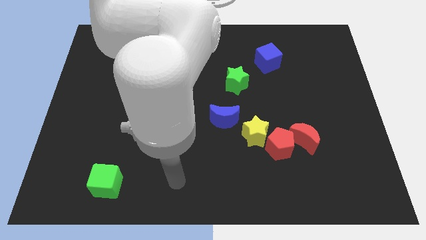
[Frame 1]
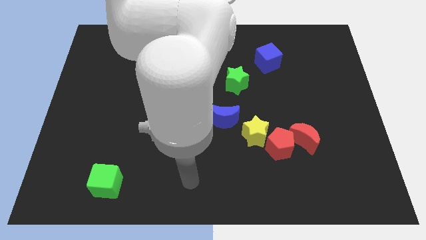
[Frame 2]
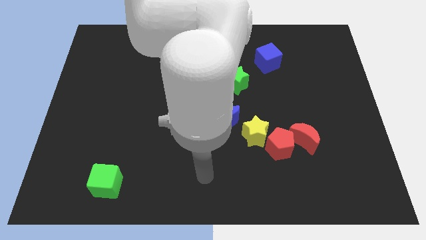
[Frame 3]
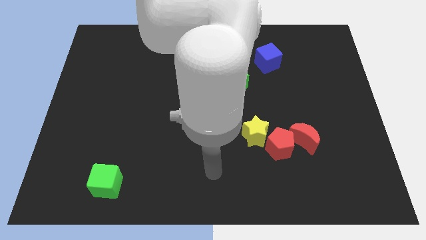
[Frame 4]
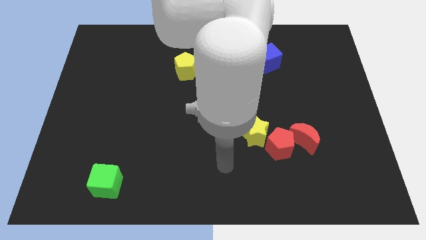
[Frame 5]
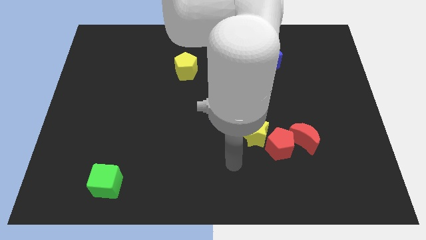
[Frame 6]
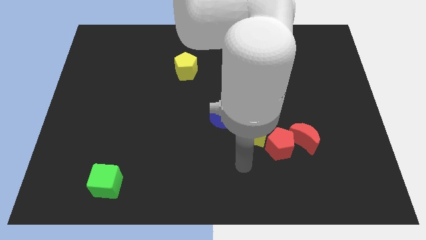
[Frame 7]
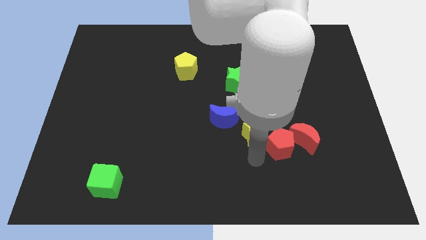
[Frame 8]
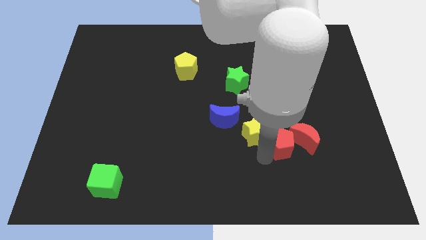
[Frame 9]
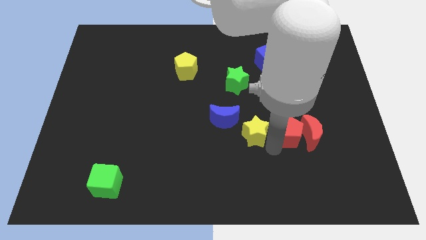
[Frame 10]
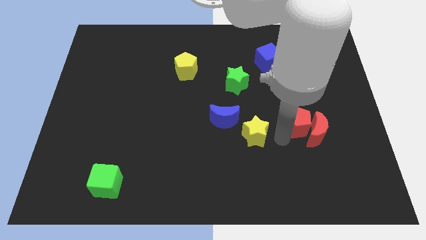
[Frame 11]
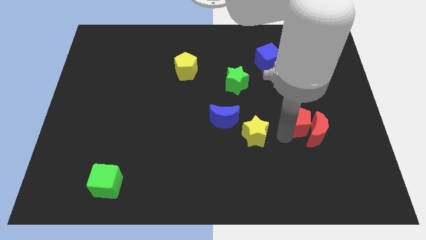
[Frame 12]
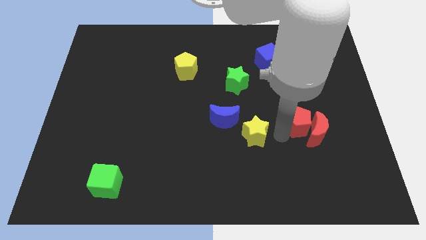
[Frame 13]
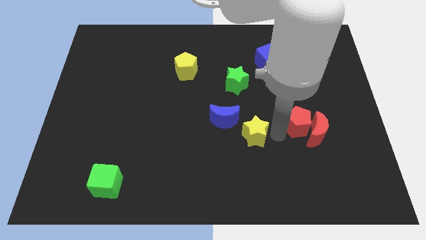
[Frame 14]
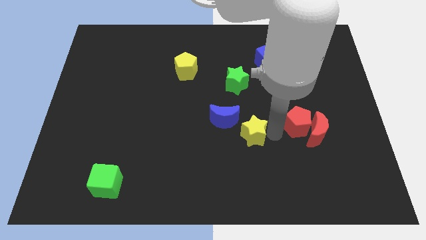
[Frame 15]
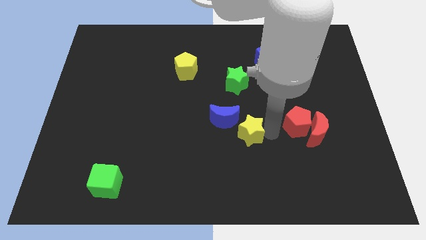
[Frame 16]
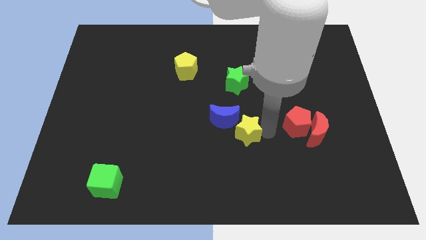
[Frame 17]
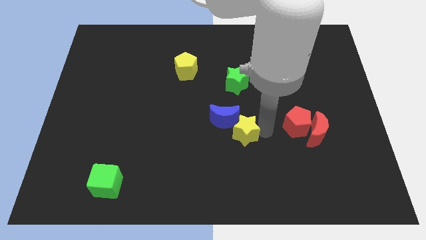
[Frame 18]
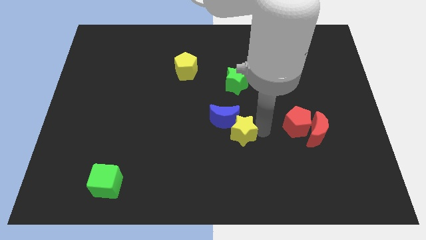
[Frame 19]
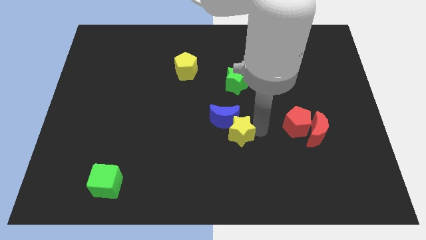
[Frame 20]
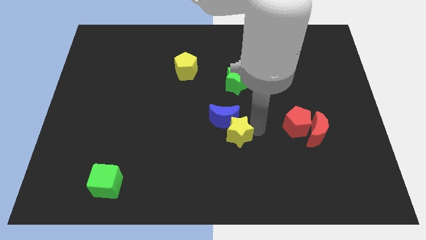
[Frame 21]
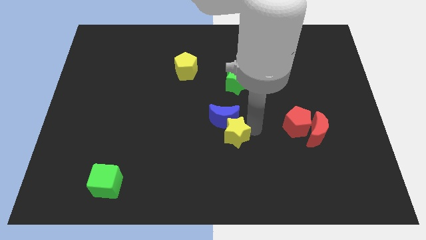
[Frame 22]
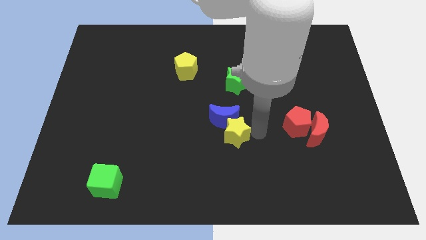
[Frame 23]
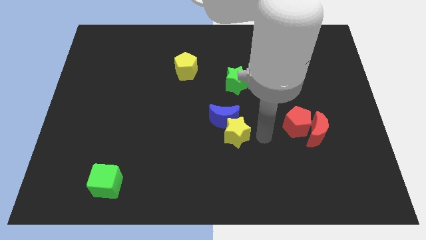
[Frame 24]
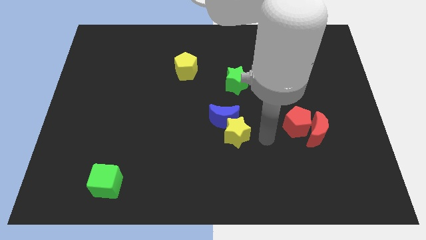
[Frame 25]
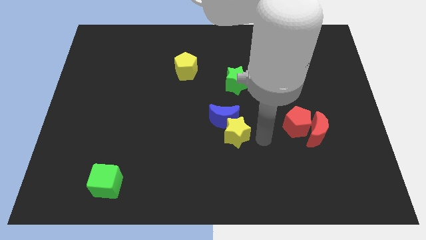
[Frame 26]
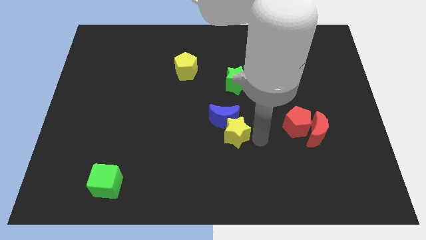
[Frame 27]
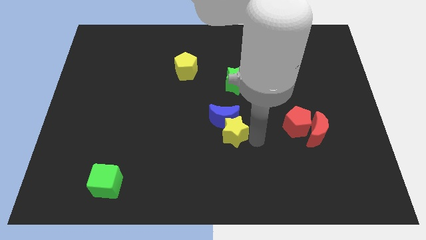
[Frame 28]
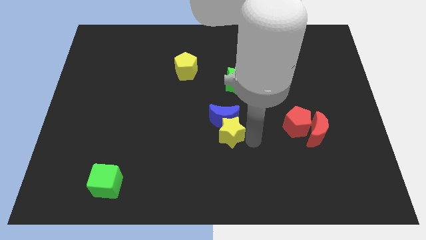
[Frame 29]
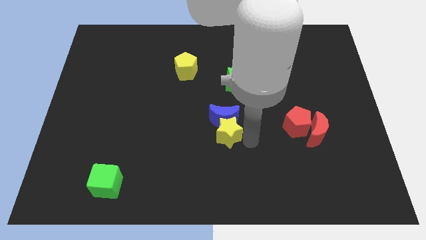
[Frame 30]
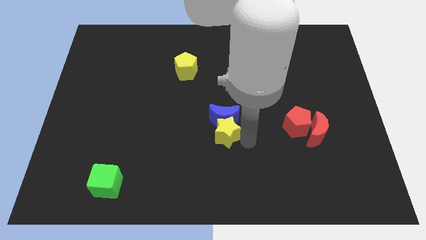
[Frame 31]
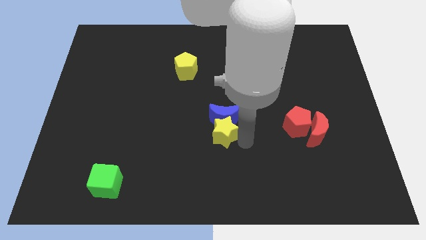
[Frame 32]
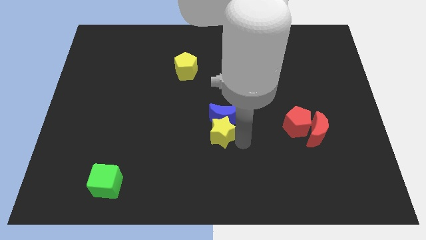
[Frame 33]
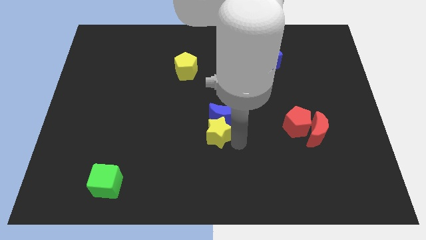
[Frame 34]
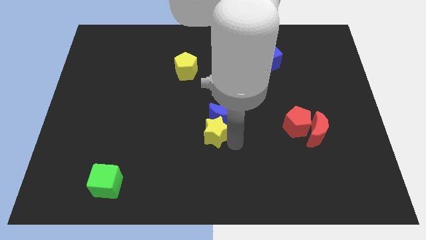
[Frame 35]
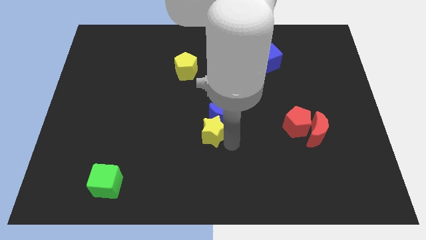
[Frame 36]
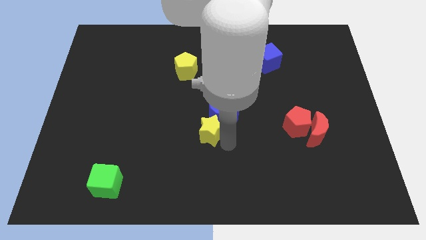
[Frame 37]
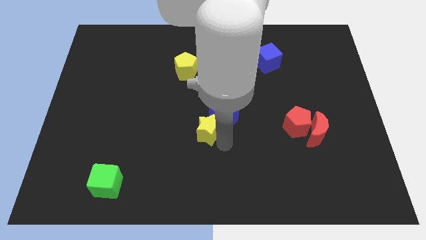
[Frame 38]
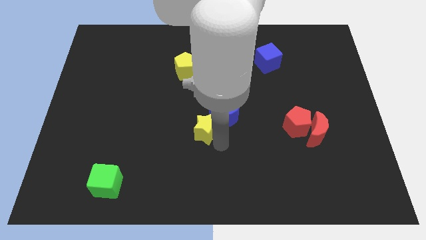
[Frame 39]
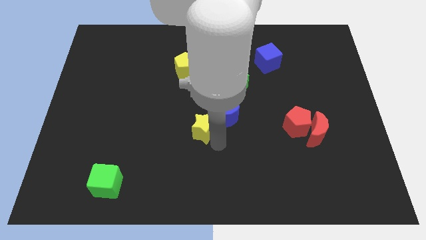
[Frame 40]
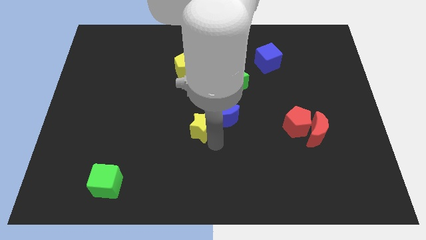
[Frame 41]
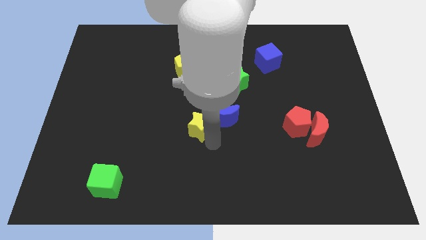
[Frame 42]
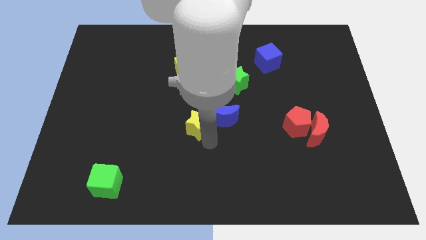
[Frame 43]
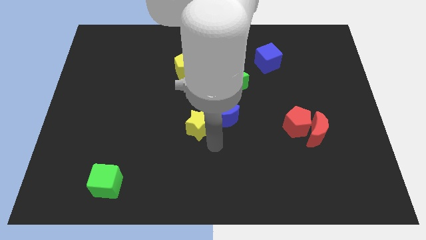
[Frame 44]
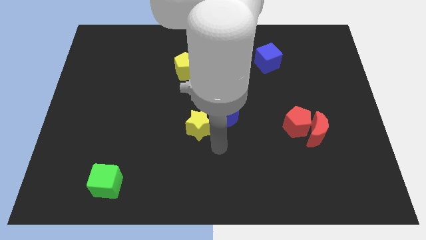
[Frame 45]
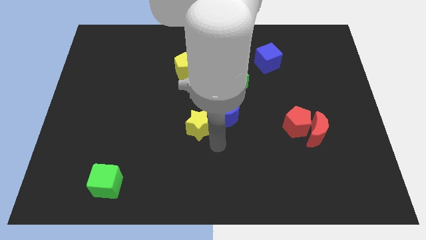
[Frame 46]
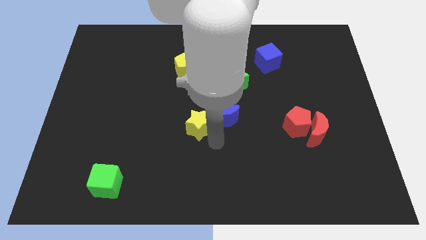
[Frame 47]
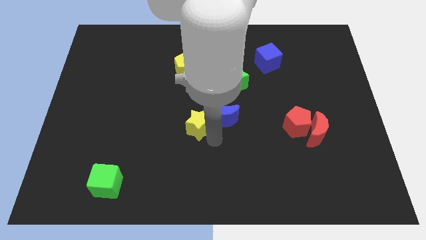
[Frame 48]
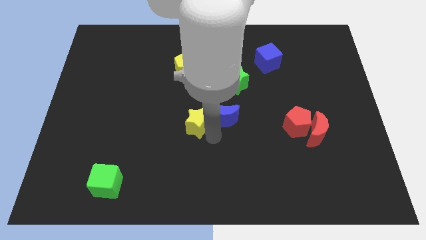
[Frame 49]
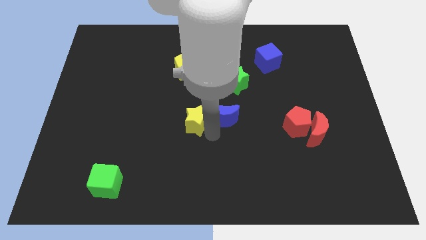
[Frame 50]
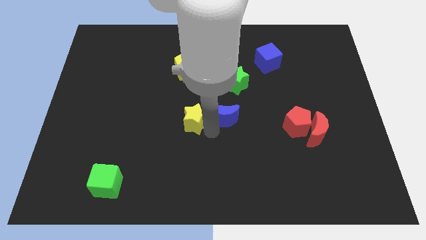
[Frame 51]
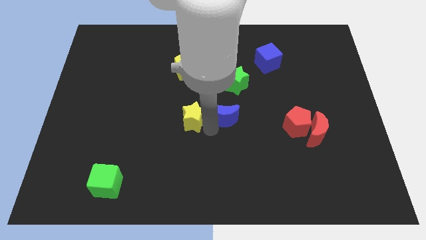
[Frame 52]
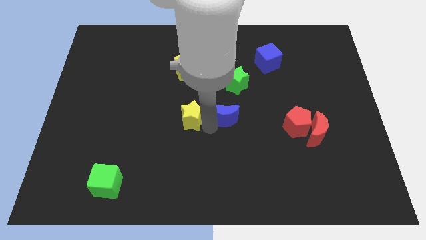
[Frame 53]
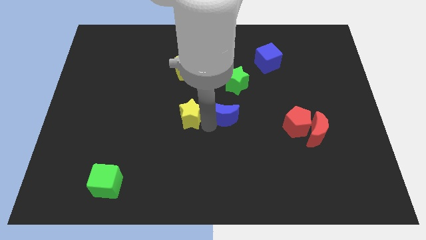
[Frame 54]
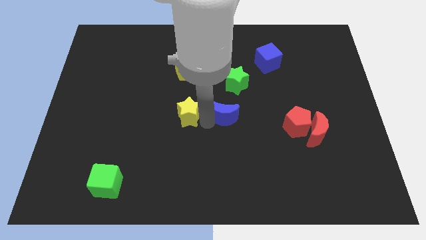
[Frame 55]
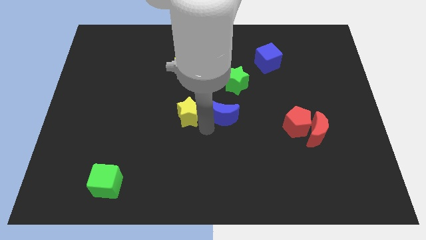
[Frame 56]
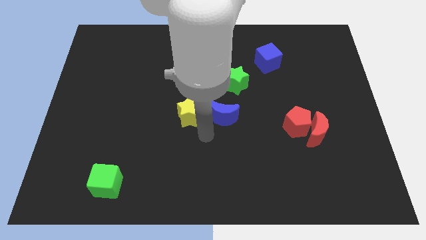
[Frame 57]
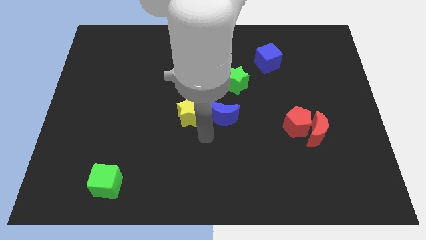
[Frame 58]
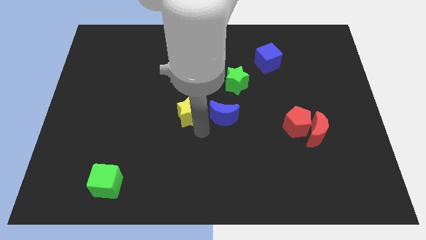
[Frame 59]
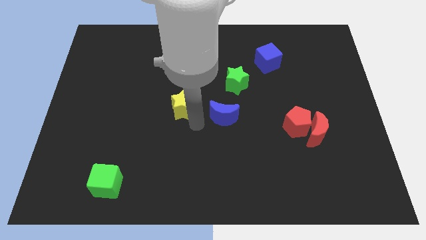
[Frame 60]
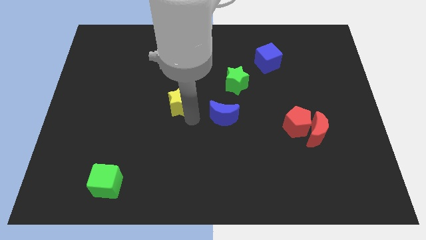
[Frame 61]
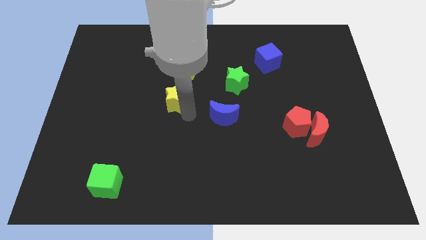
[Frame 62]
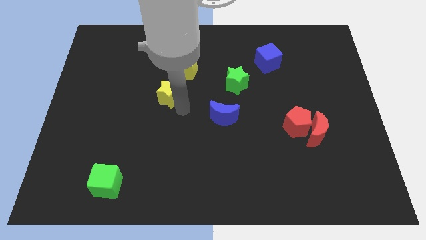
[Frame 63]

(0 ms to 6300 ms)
move the yellow star up and then left

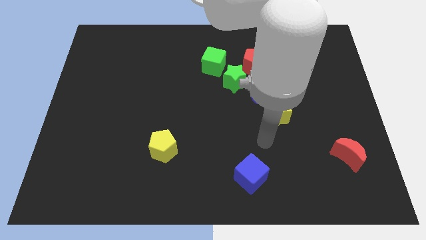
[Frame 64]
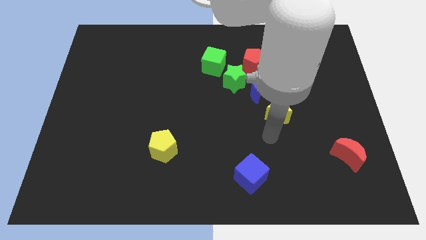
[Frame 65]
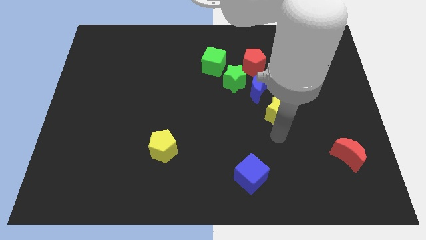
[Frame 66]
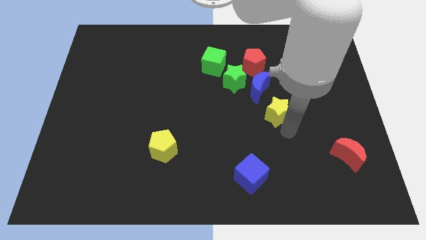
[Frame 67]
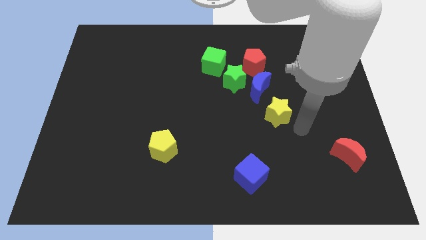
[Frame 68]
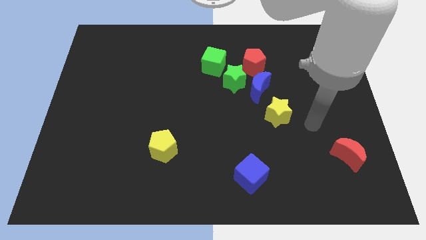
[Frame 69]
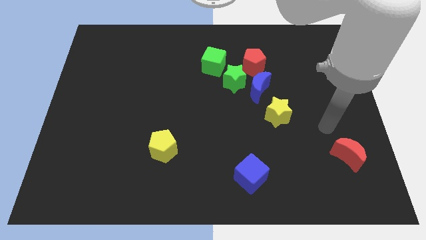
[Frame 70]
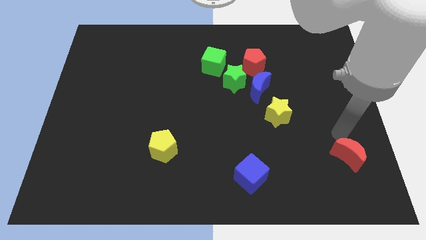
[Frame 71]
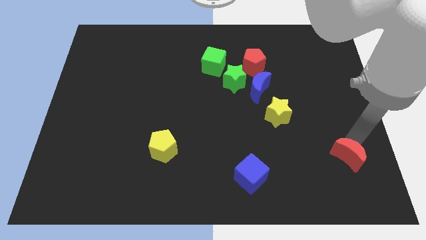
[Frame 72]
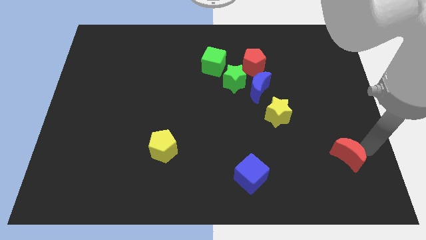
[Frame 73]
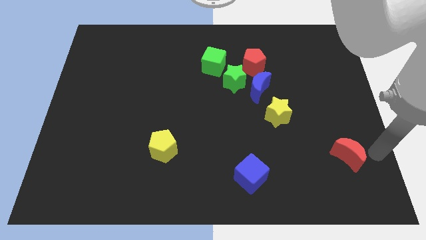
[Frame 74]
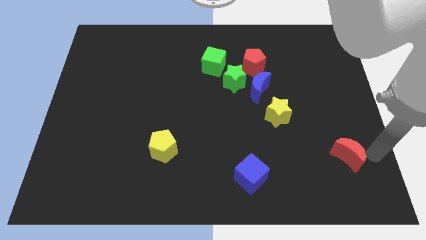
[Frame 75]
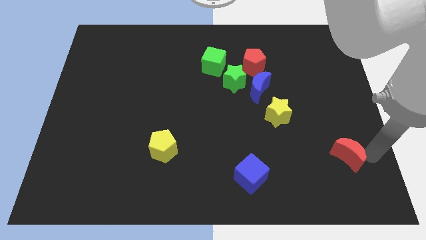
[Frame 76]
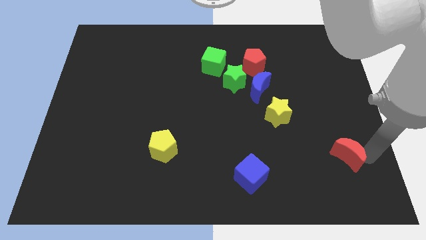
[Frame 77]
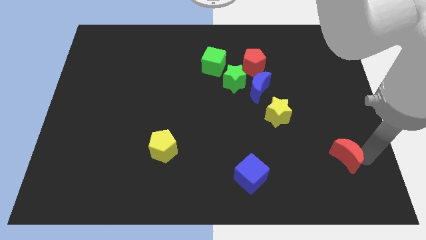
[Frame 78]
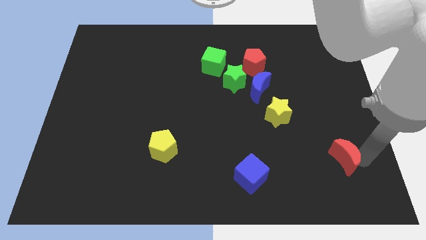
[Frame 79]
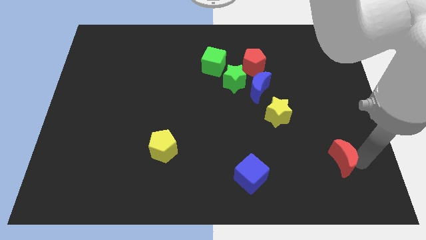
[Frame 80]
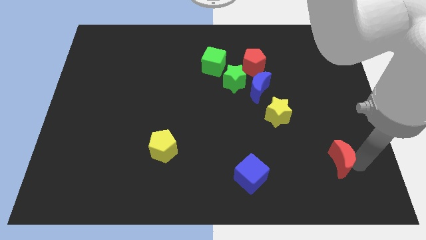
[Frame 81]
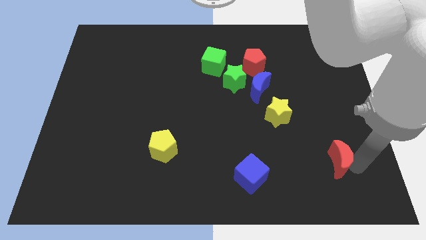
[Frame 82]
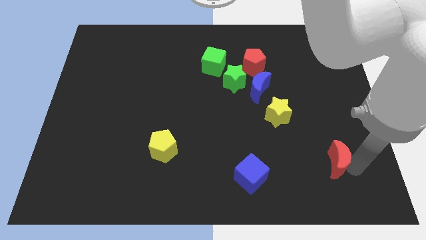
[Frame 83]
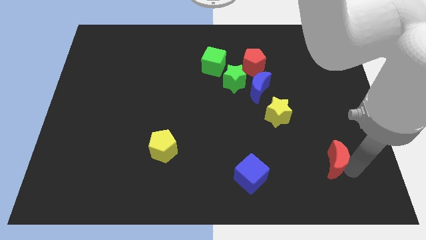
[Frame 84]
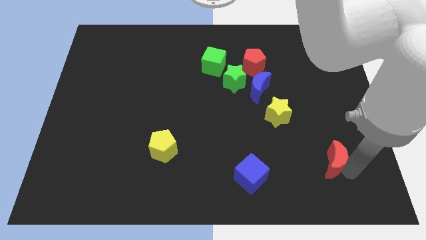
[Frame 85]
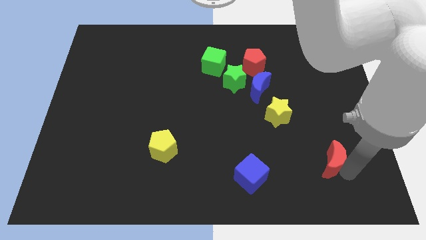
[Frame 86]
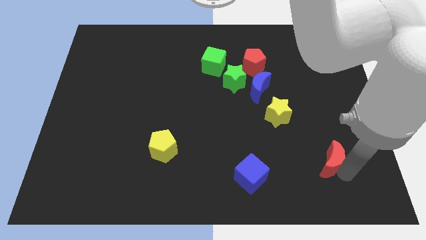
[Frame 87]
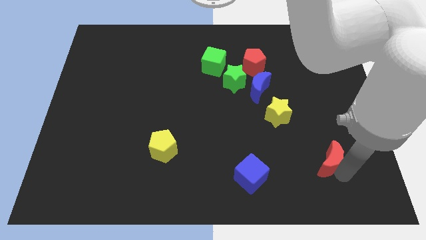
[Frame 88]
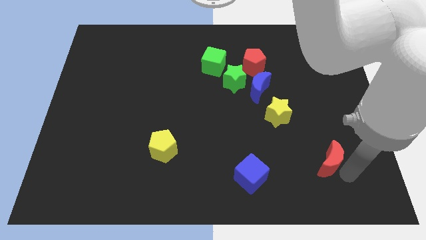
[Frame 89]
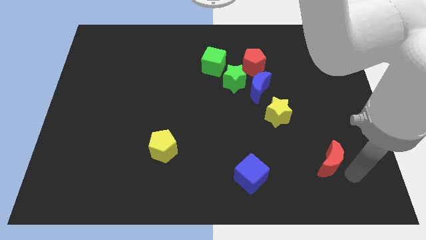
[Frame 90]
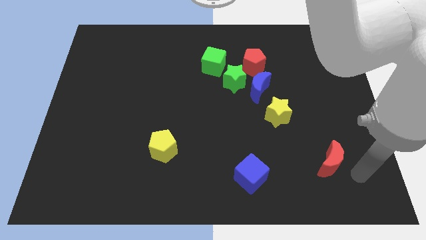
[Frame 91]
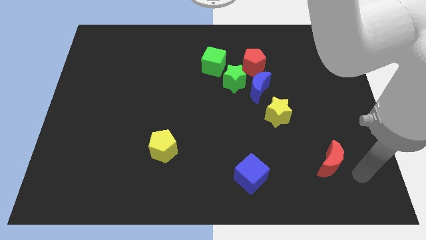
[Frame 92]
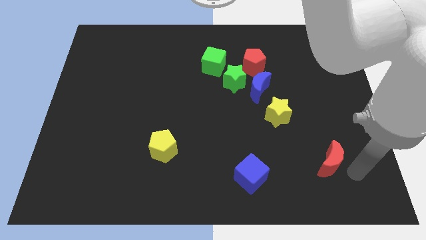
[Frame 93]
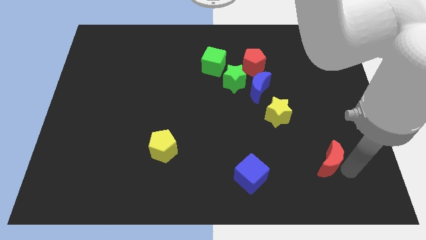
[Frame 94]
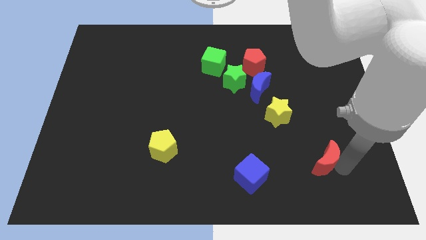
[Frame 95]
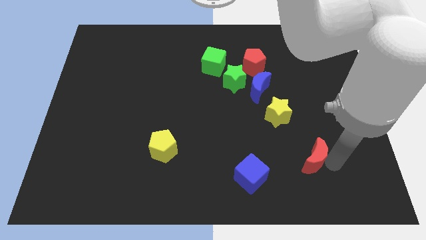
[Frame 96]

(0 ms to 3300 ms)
slightly move the red moon to the left
